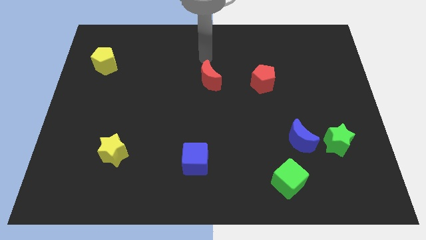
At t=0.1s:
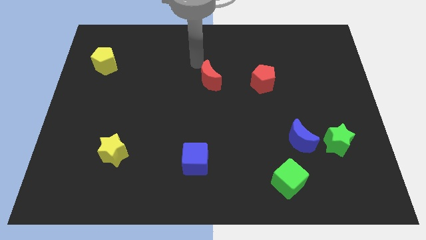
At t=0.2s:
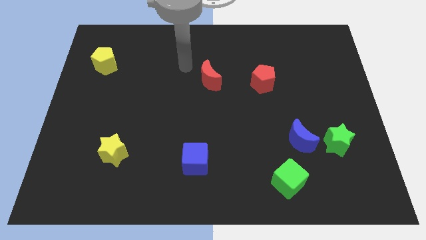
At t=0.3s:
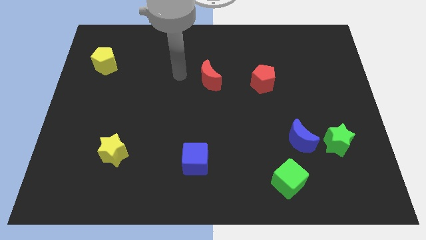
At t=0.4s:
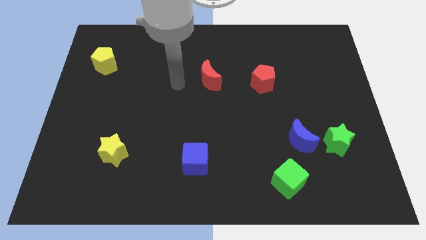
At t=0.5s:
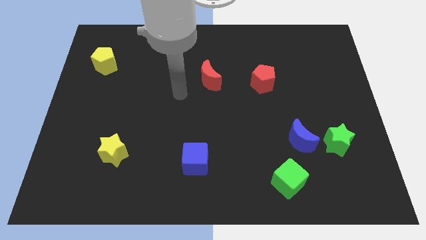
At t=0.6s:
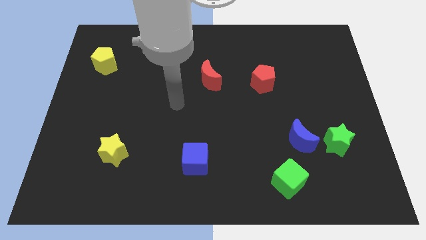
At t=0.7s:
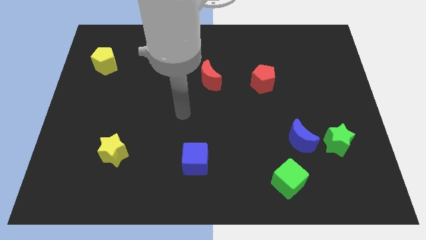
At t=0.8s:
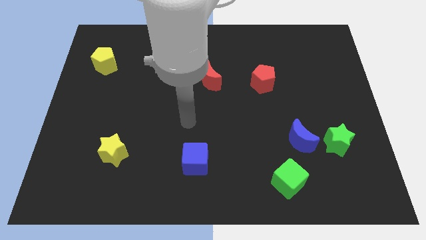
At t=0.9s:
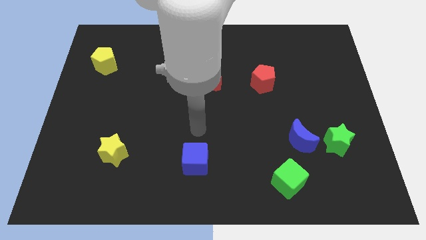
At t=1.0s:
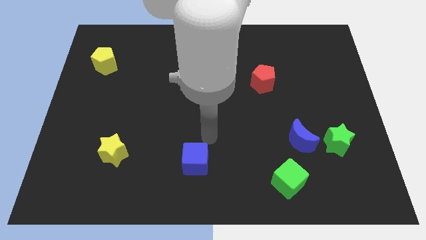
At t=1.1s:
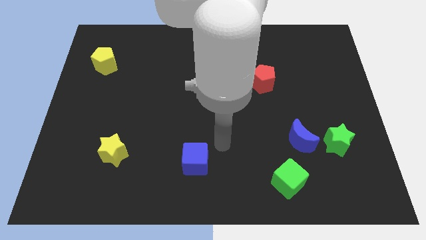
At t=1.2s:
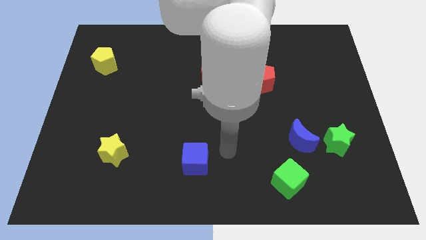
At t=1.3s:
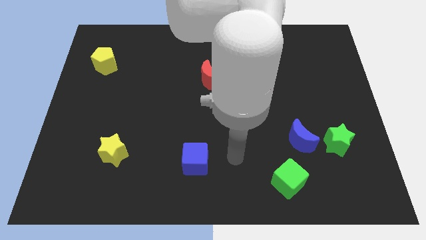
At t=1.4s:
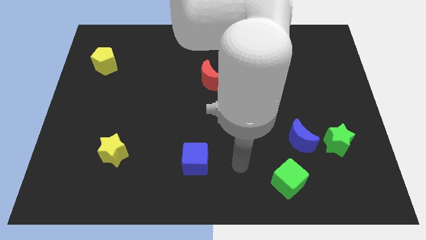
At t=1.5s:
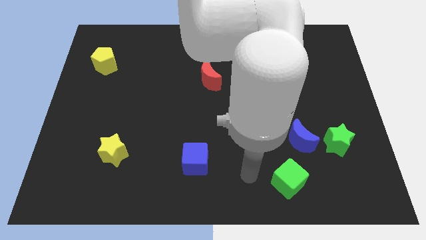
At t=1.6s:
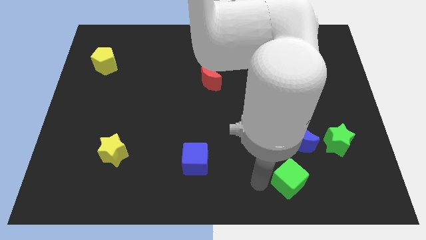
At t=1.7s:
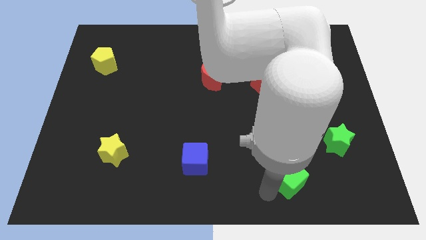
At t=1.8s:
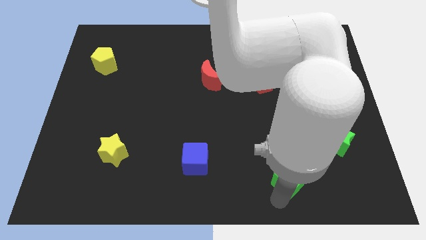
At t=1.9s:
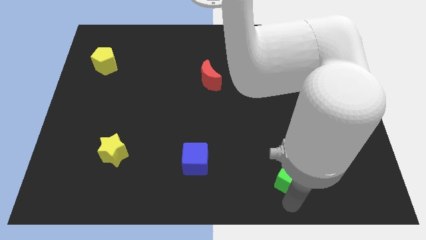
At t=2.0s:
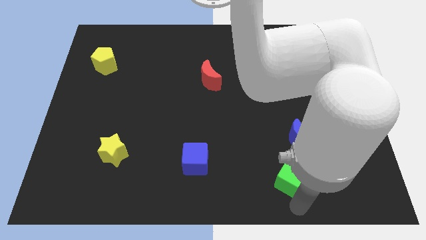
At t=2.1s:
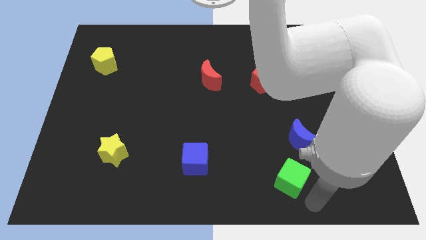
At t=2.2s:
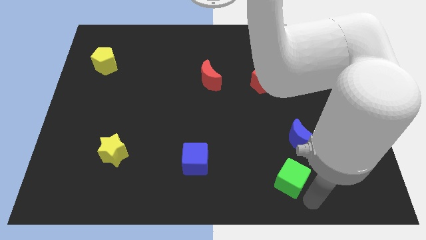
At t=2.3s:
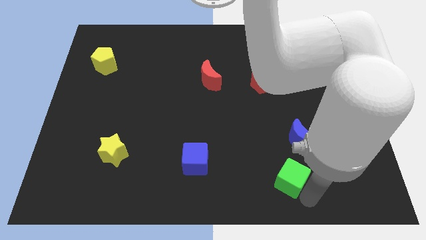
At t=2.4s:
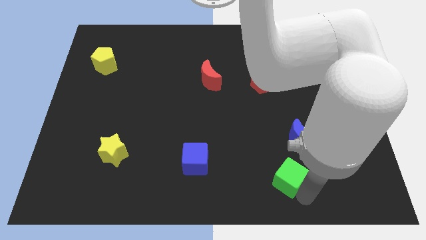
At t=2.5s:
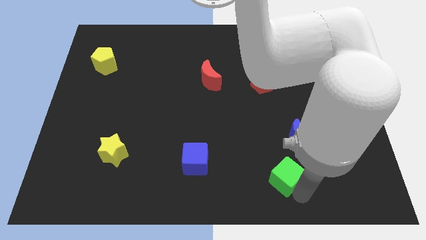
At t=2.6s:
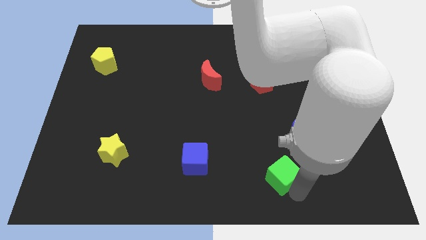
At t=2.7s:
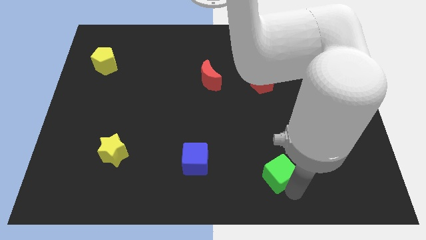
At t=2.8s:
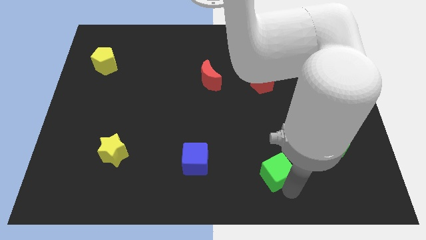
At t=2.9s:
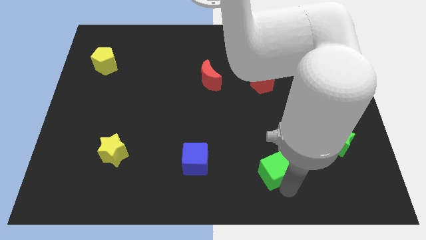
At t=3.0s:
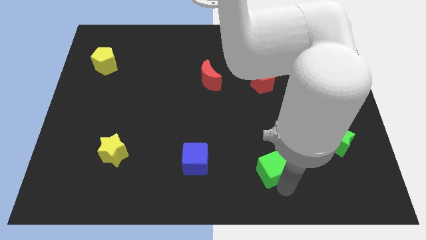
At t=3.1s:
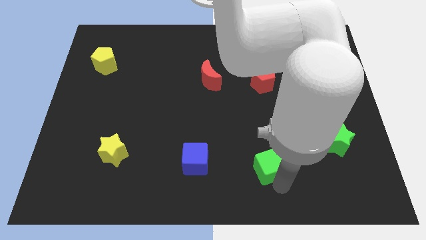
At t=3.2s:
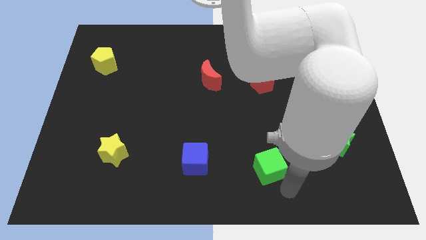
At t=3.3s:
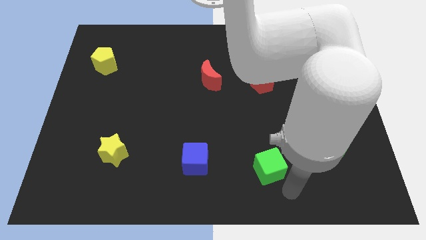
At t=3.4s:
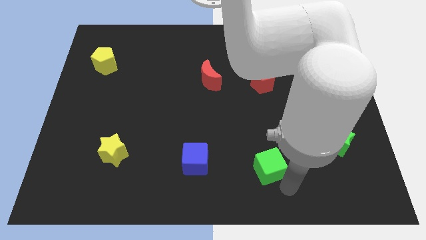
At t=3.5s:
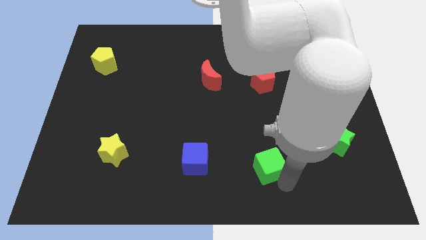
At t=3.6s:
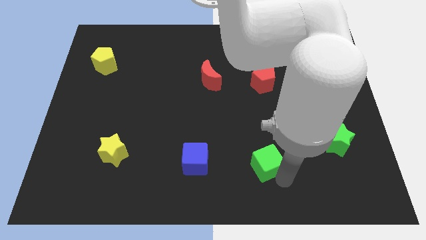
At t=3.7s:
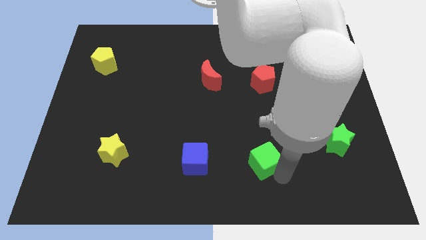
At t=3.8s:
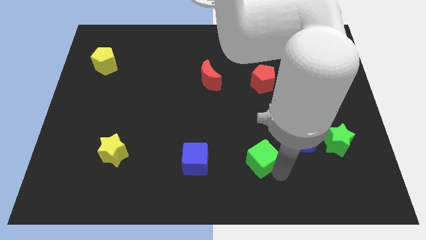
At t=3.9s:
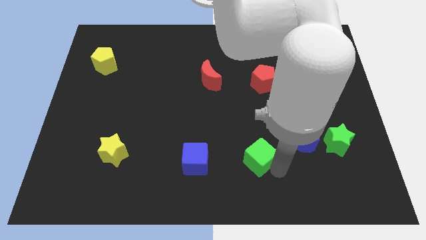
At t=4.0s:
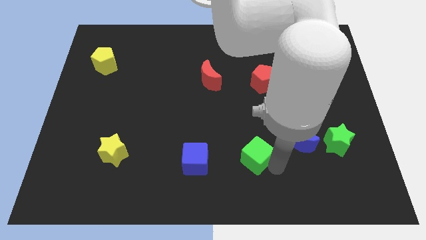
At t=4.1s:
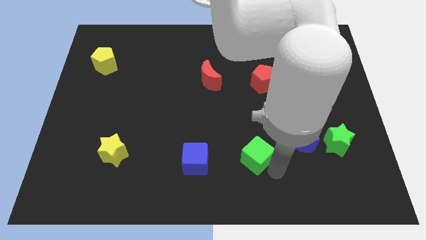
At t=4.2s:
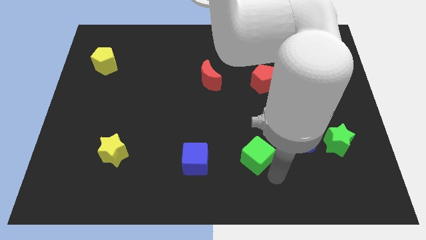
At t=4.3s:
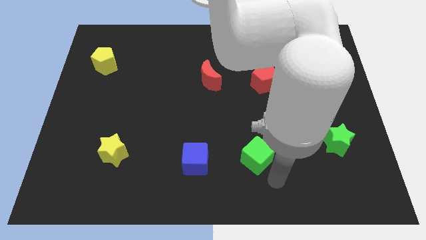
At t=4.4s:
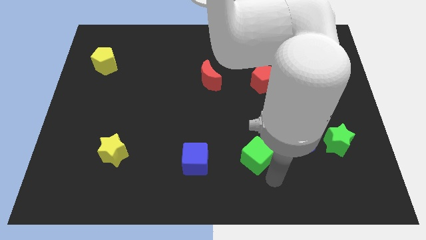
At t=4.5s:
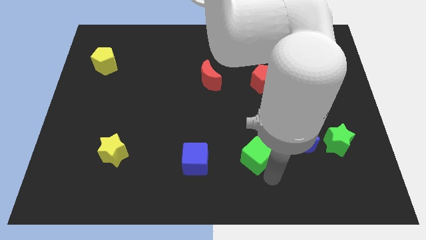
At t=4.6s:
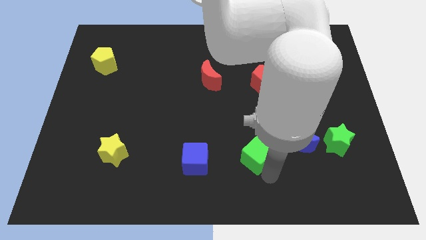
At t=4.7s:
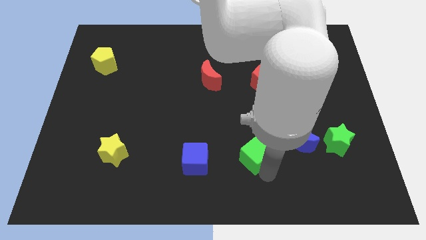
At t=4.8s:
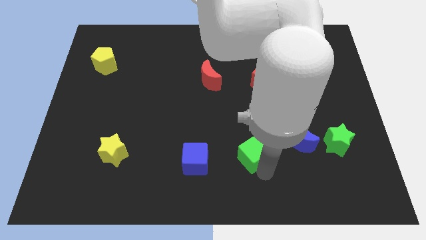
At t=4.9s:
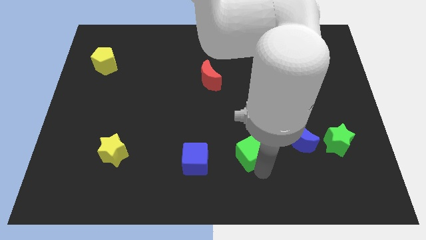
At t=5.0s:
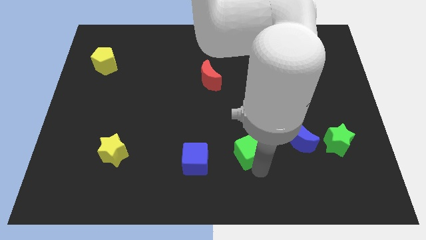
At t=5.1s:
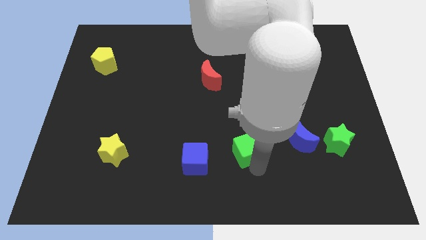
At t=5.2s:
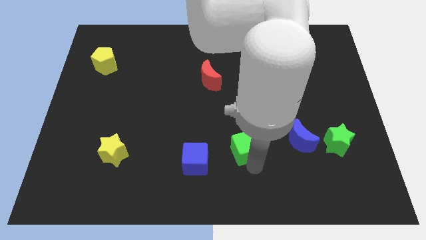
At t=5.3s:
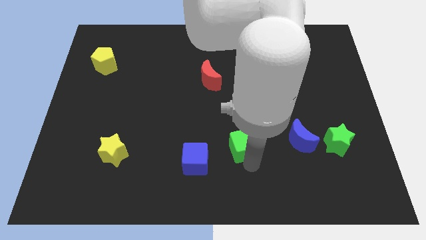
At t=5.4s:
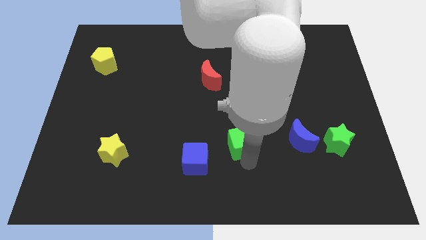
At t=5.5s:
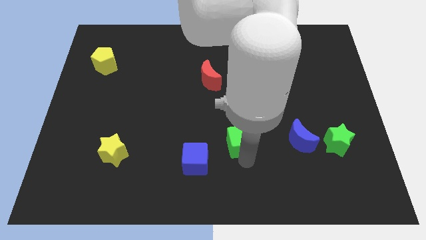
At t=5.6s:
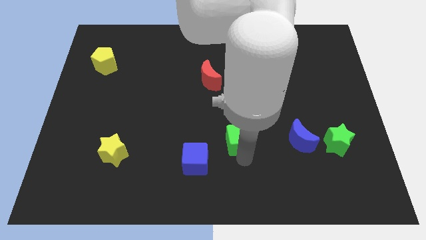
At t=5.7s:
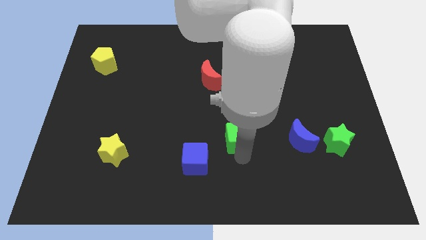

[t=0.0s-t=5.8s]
push the green cube to the center
